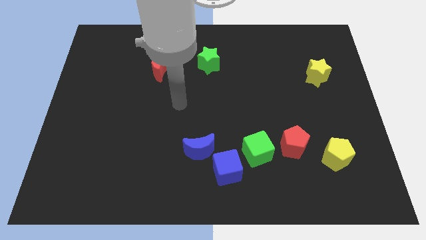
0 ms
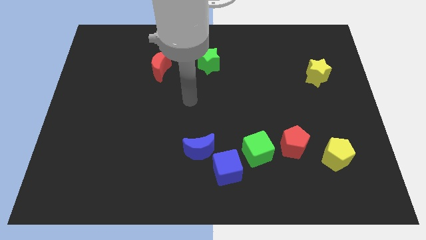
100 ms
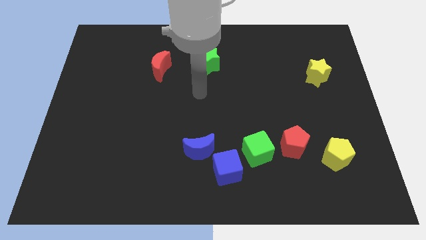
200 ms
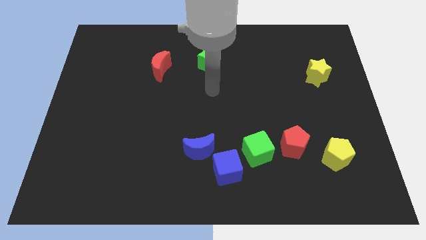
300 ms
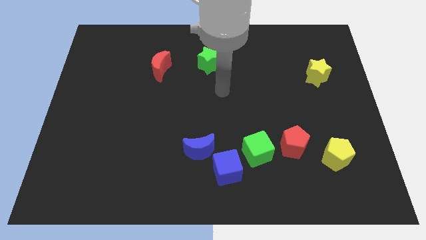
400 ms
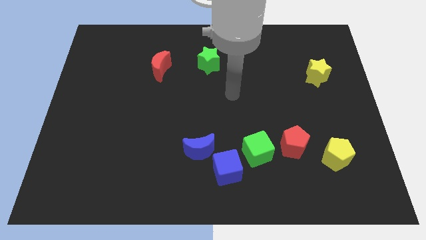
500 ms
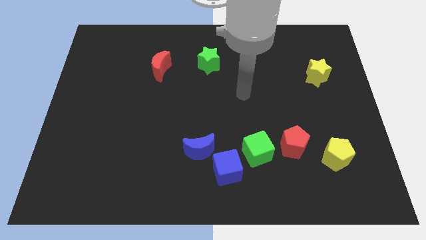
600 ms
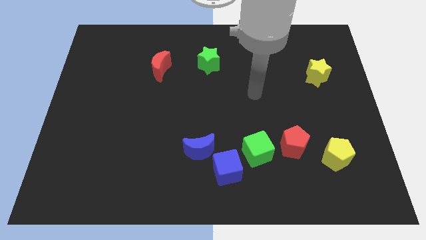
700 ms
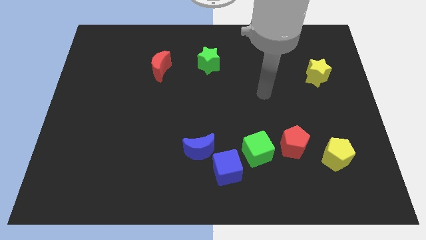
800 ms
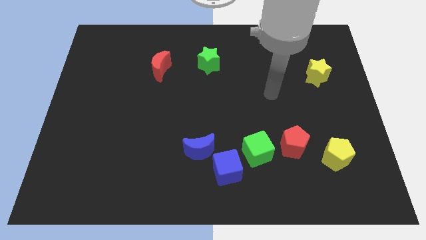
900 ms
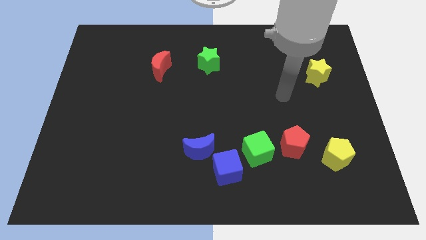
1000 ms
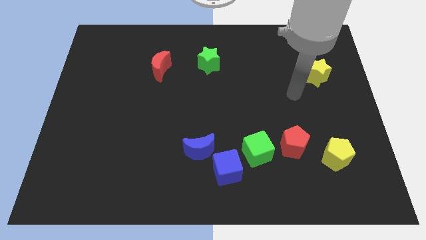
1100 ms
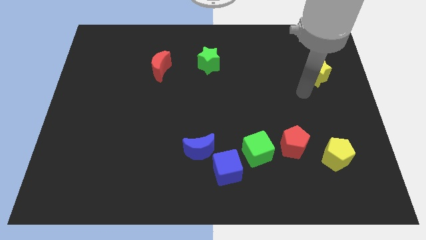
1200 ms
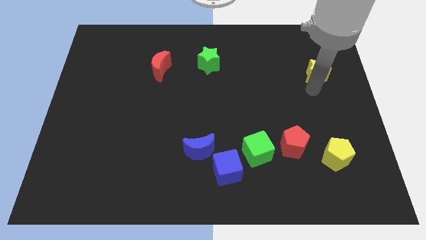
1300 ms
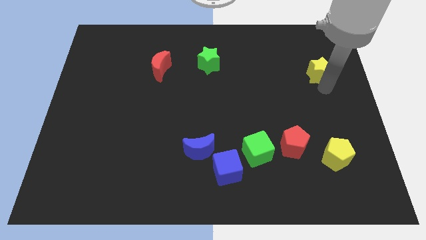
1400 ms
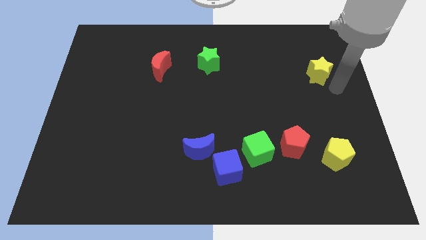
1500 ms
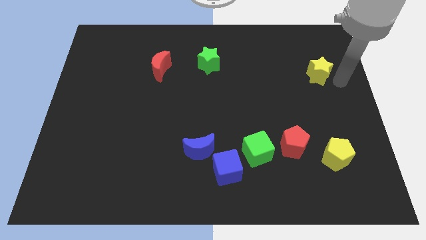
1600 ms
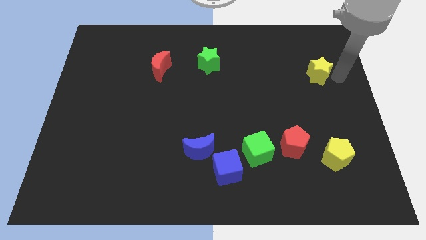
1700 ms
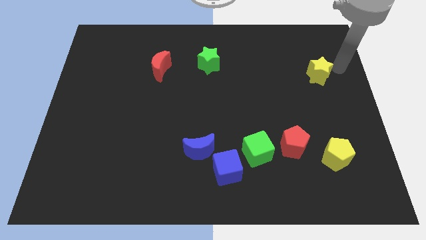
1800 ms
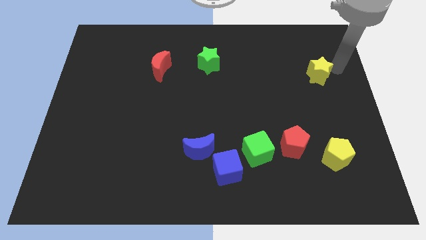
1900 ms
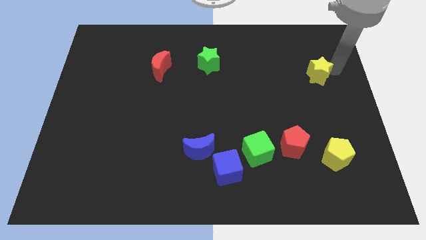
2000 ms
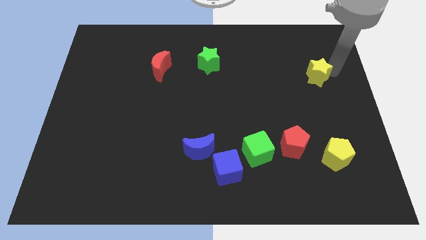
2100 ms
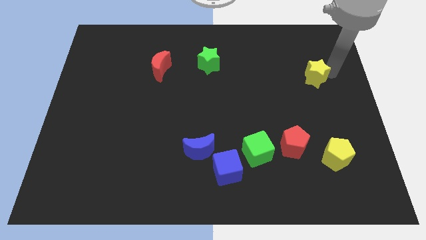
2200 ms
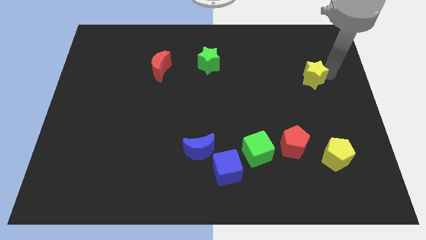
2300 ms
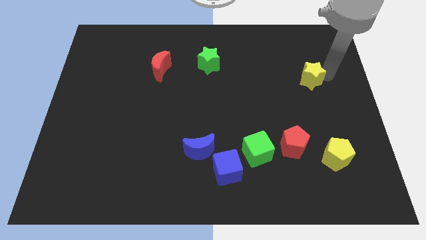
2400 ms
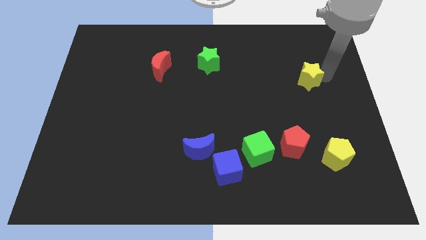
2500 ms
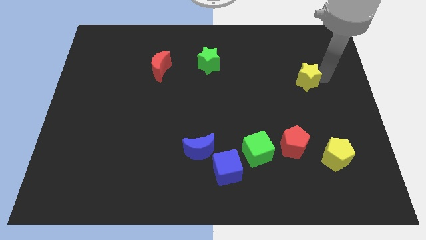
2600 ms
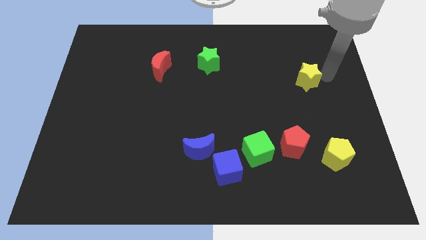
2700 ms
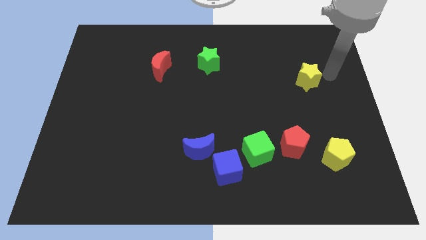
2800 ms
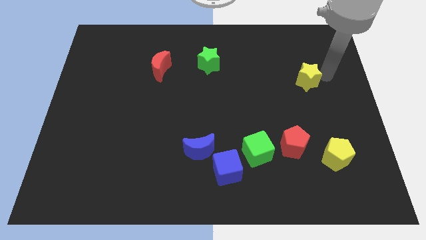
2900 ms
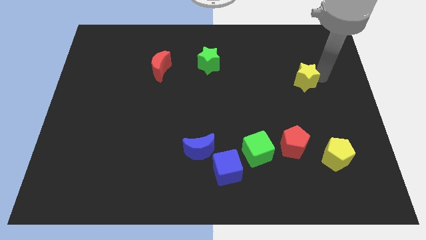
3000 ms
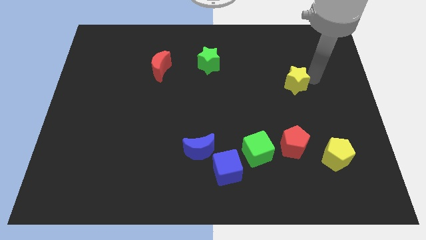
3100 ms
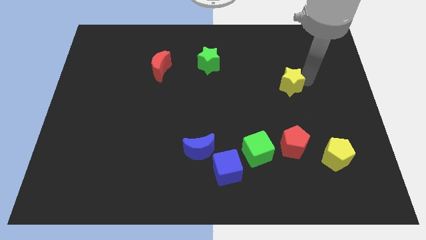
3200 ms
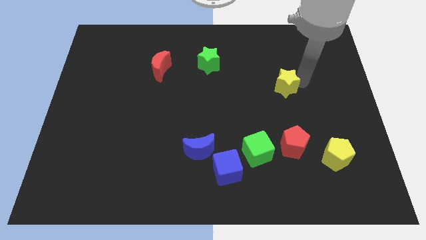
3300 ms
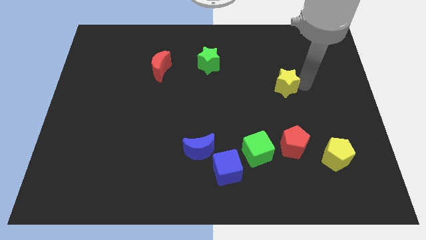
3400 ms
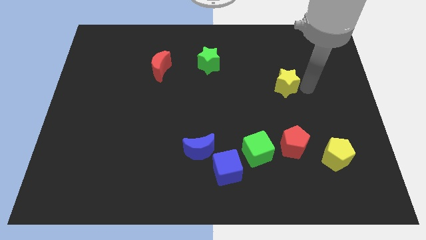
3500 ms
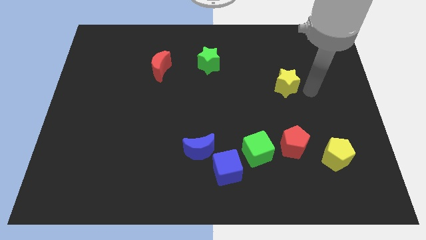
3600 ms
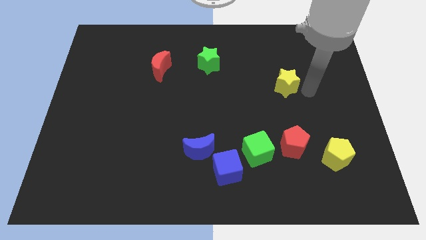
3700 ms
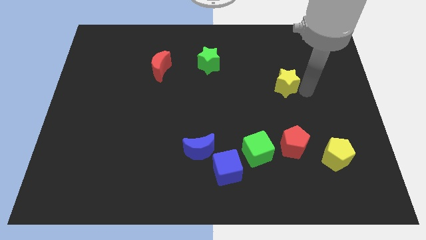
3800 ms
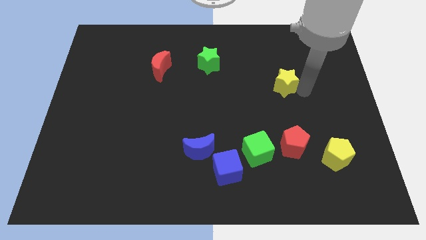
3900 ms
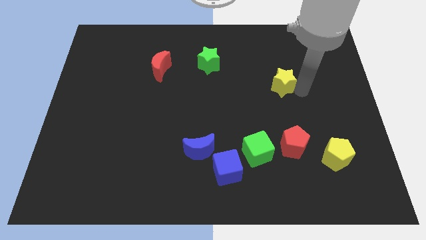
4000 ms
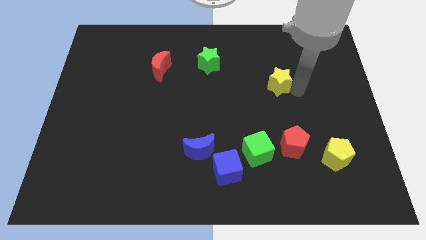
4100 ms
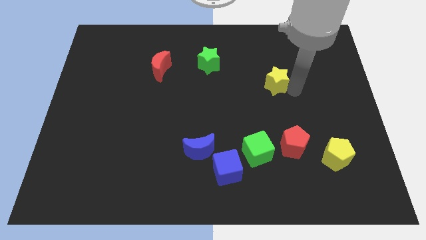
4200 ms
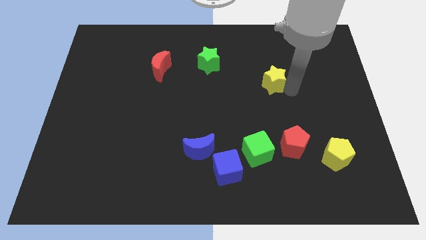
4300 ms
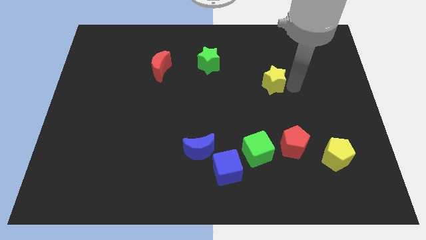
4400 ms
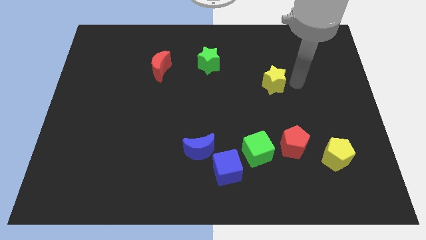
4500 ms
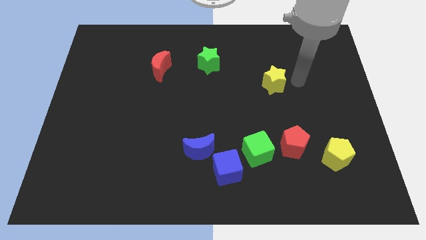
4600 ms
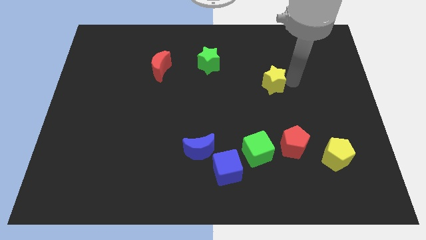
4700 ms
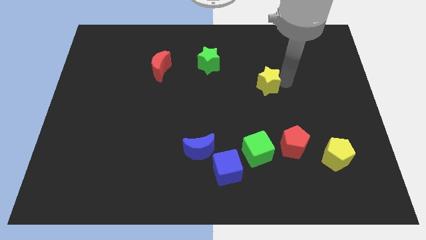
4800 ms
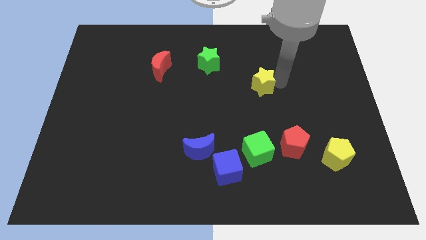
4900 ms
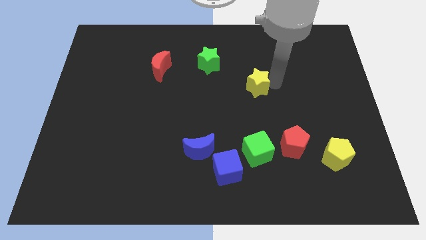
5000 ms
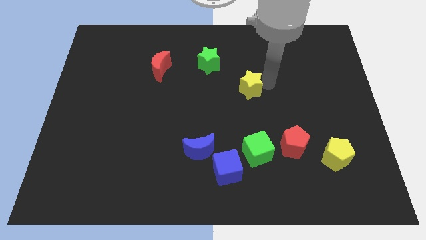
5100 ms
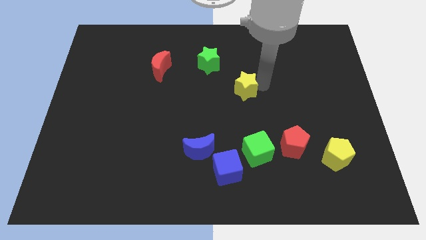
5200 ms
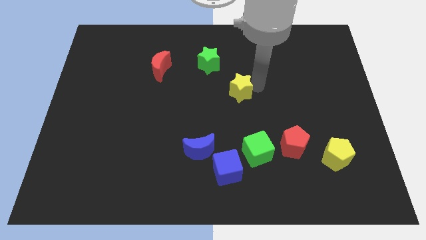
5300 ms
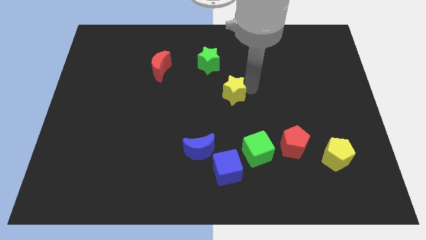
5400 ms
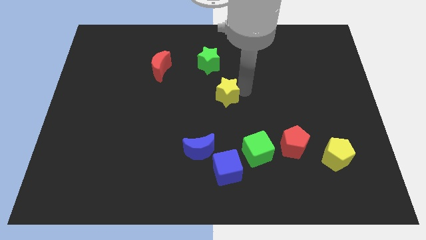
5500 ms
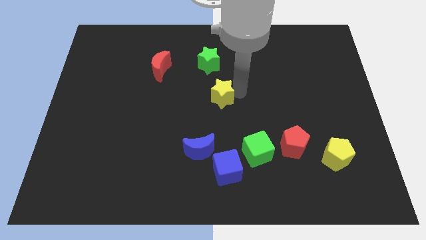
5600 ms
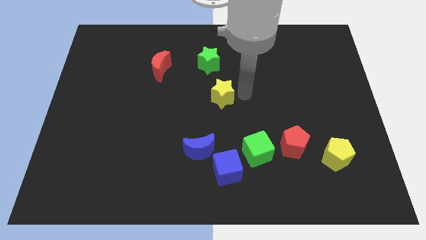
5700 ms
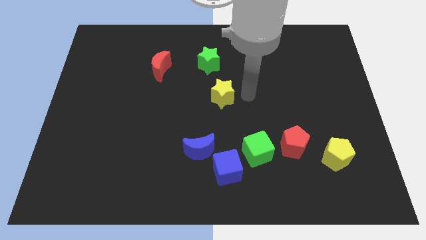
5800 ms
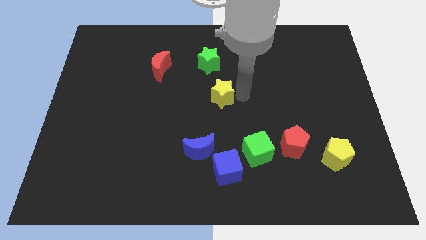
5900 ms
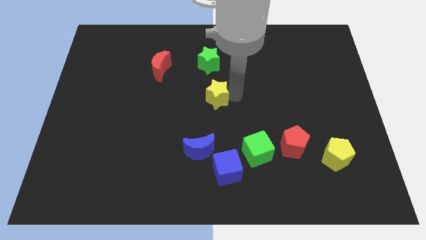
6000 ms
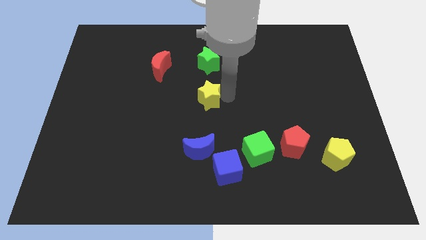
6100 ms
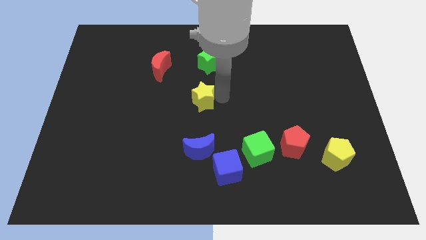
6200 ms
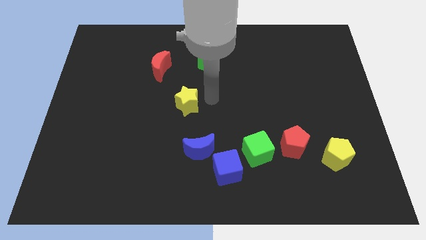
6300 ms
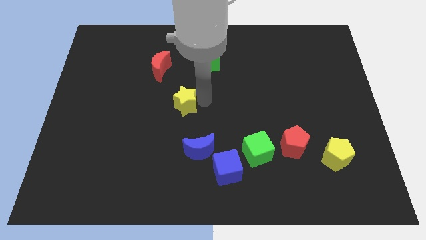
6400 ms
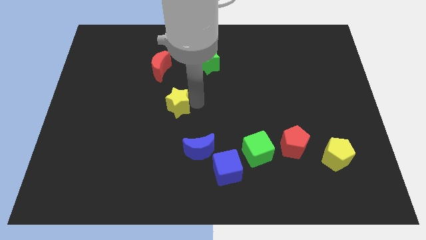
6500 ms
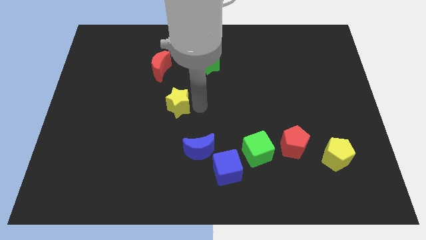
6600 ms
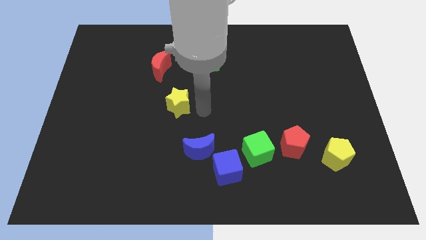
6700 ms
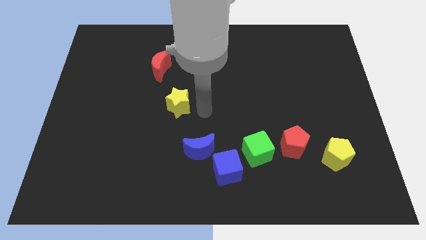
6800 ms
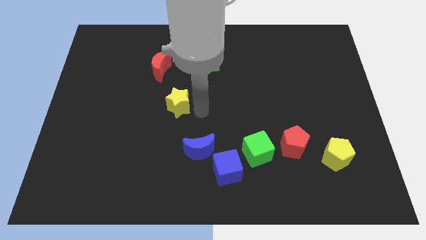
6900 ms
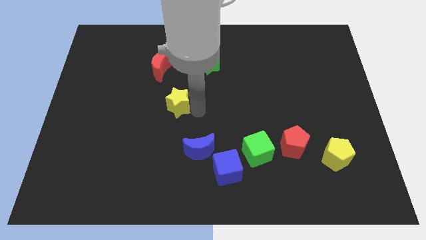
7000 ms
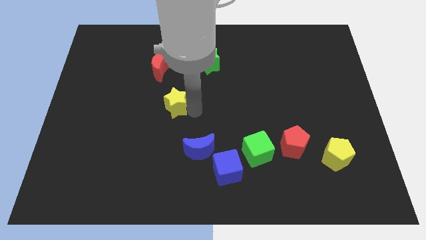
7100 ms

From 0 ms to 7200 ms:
move the yellow star to the bottom side of the red moon
